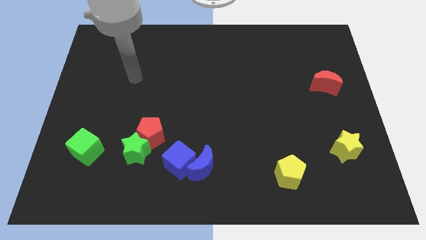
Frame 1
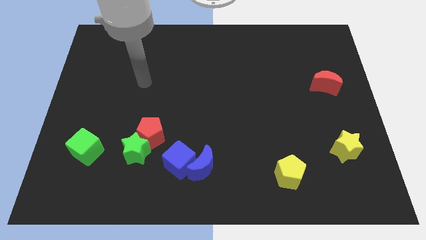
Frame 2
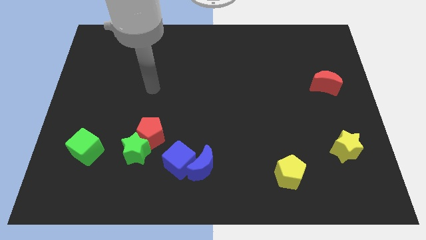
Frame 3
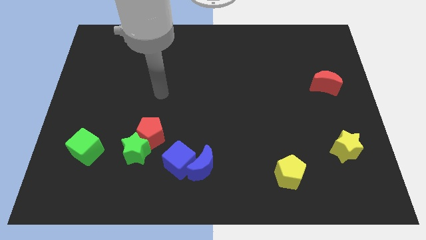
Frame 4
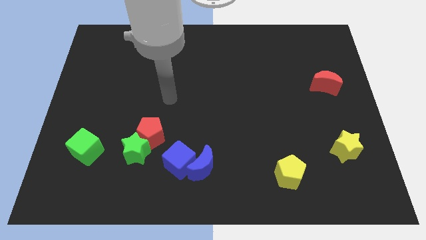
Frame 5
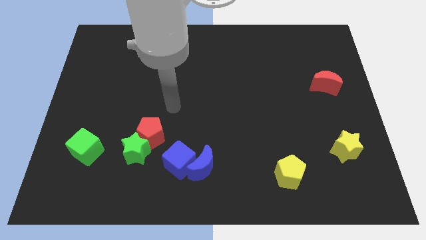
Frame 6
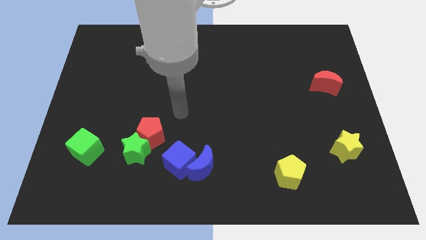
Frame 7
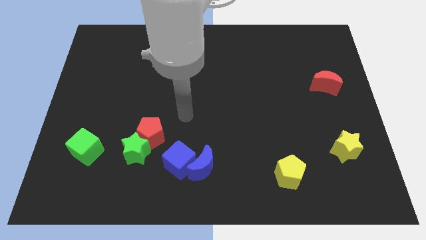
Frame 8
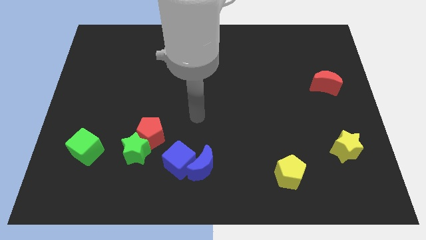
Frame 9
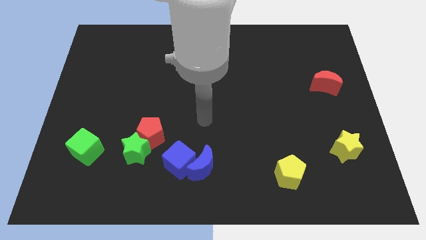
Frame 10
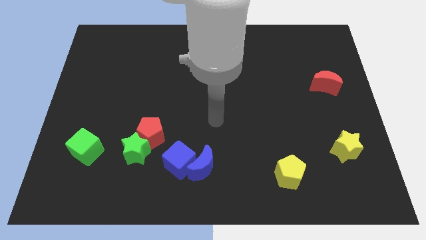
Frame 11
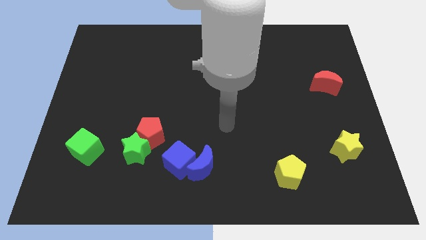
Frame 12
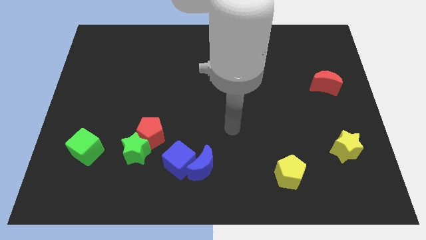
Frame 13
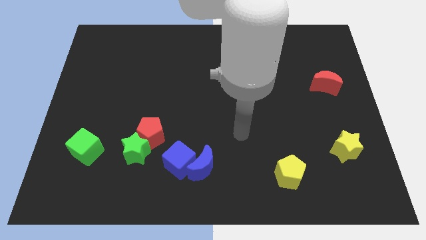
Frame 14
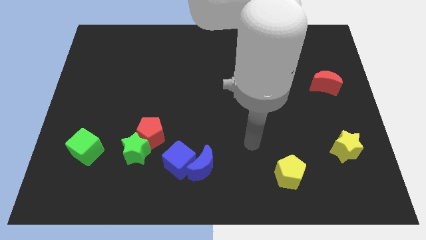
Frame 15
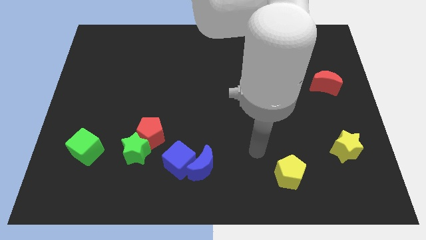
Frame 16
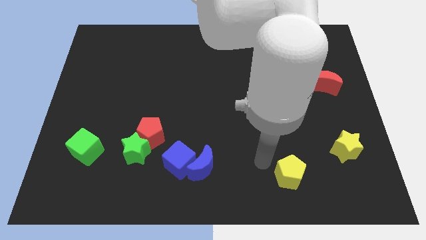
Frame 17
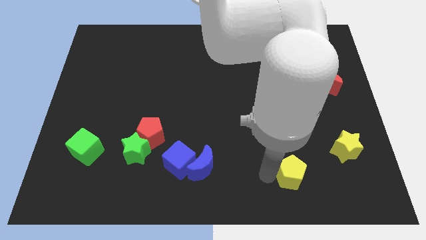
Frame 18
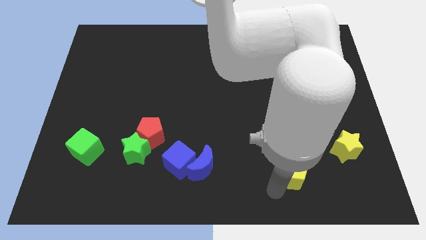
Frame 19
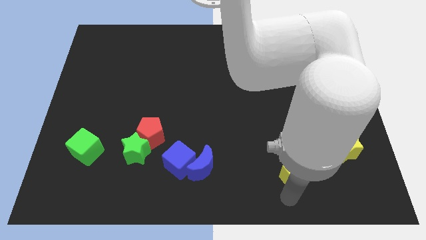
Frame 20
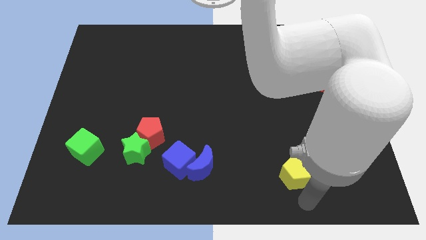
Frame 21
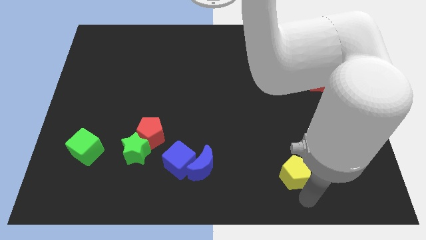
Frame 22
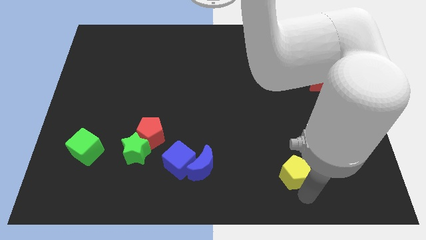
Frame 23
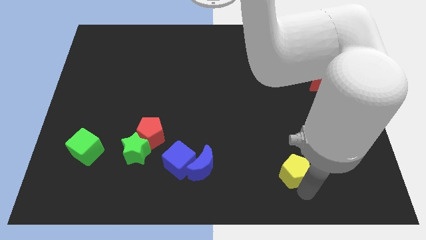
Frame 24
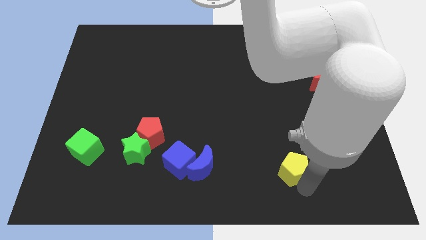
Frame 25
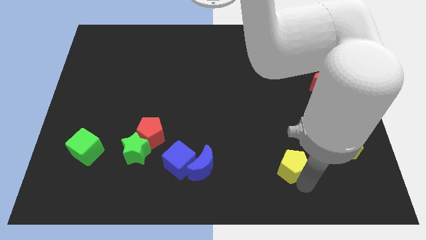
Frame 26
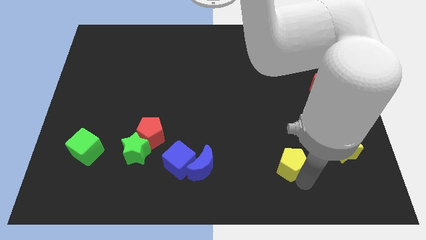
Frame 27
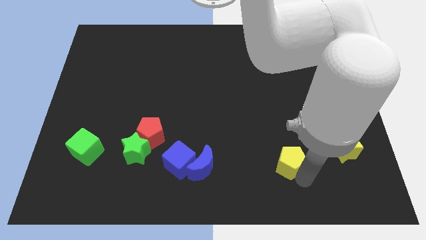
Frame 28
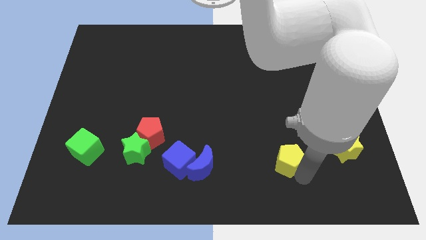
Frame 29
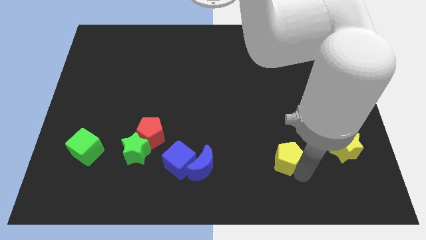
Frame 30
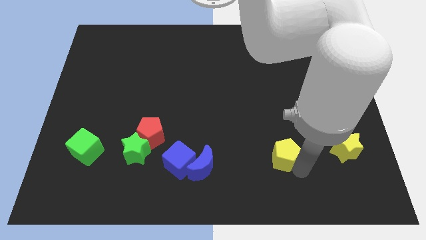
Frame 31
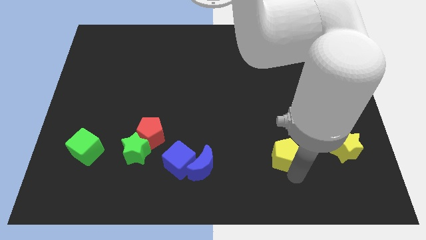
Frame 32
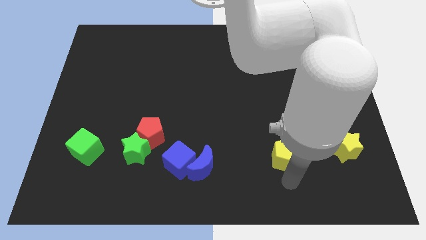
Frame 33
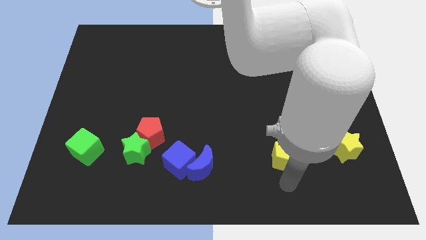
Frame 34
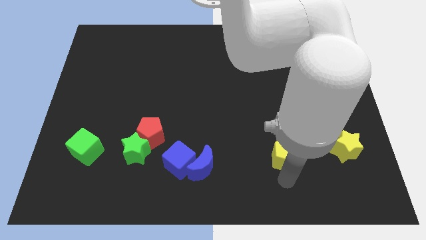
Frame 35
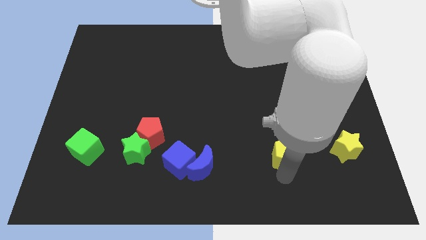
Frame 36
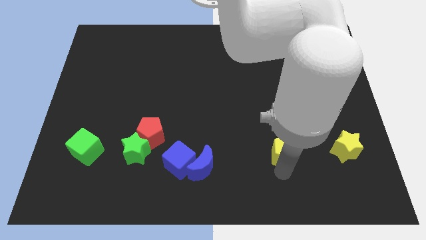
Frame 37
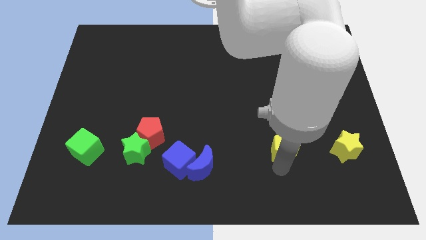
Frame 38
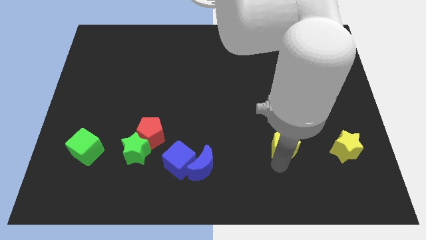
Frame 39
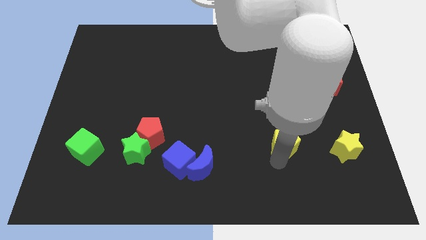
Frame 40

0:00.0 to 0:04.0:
slide the yellow pentagon up somewhat

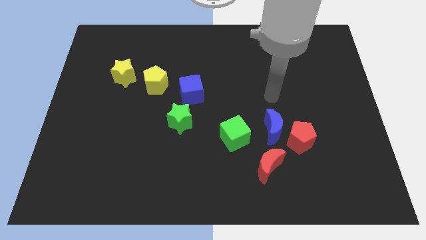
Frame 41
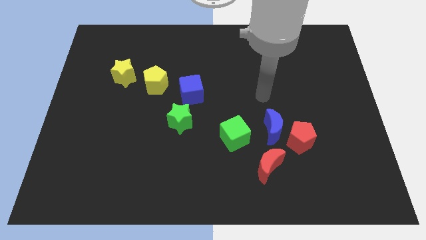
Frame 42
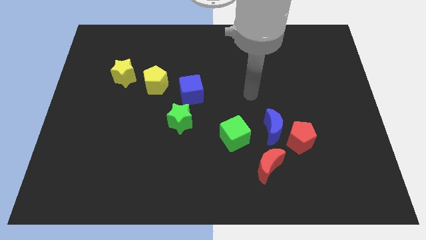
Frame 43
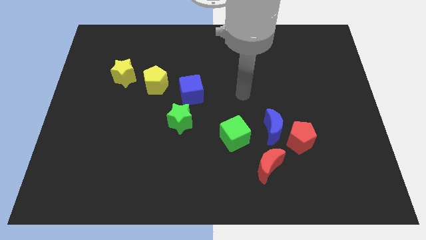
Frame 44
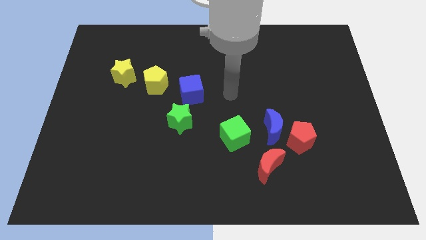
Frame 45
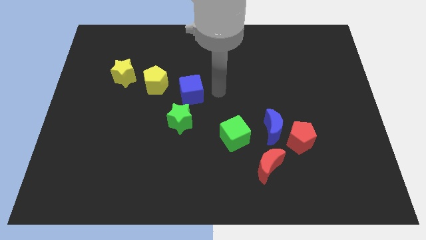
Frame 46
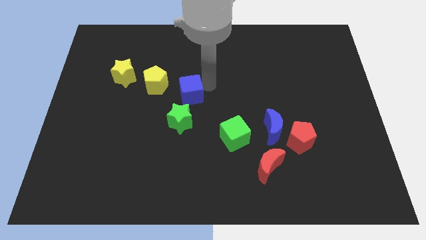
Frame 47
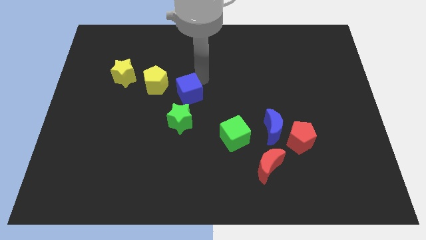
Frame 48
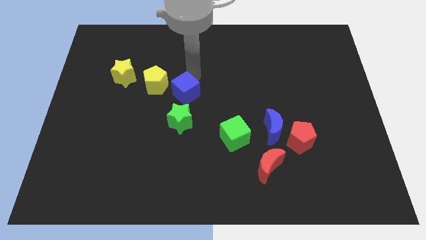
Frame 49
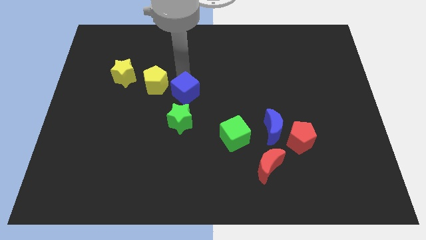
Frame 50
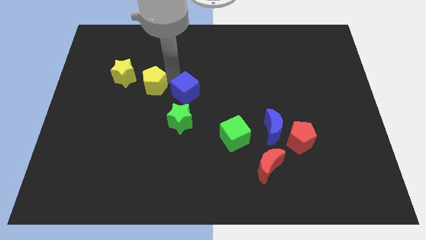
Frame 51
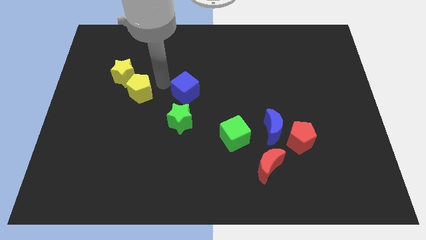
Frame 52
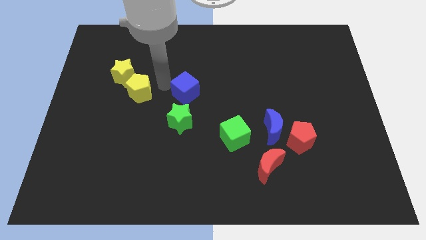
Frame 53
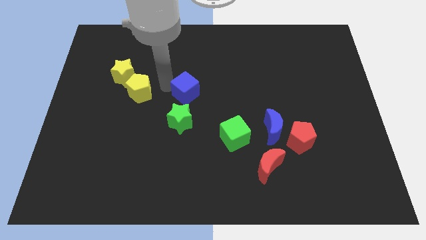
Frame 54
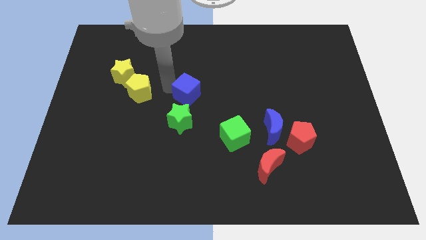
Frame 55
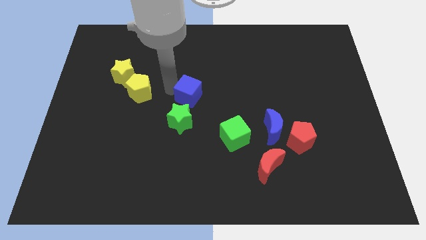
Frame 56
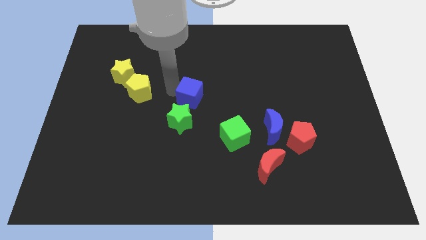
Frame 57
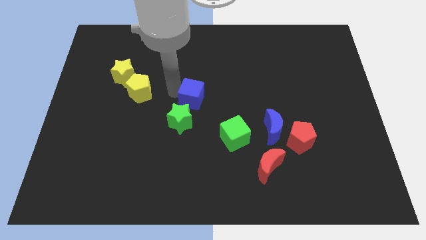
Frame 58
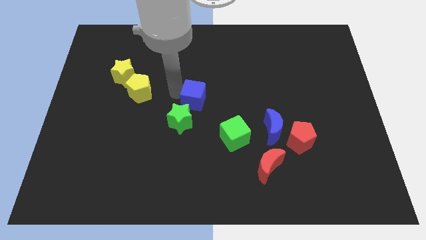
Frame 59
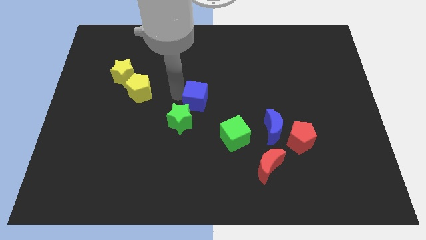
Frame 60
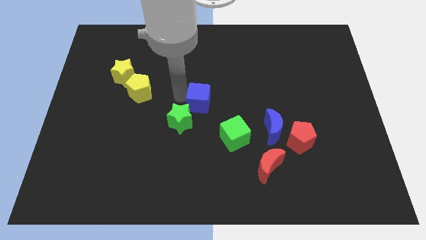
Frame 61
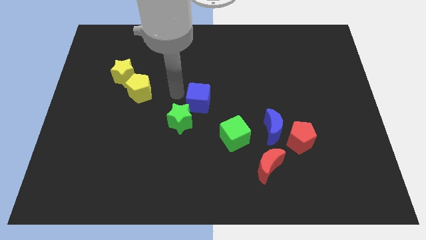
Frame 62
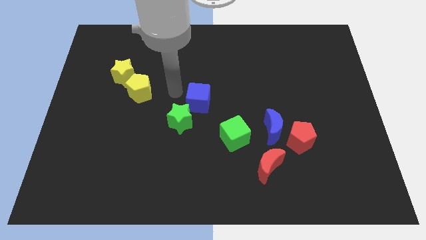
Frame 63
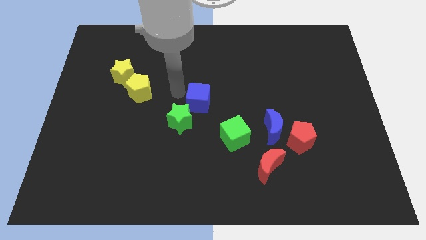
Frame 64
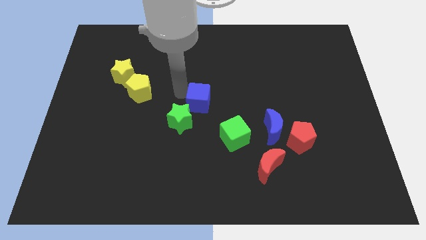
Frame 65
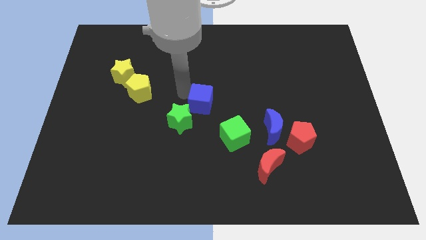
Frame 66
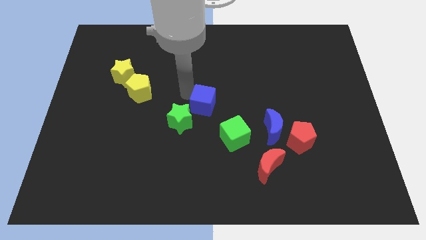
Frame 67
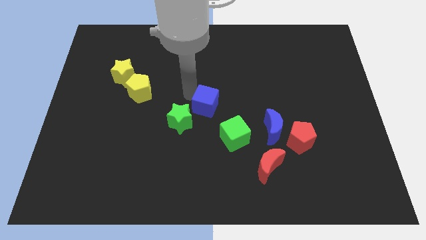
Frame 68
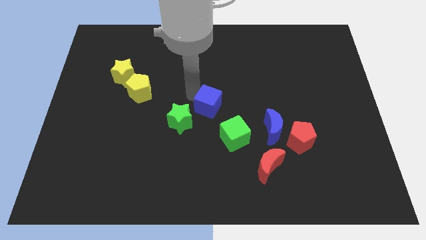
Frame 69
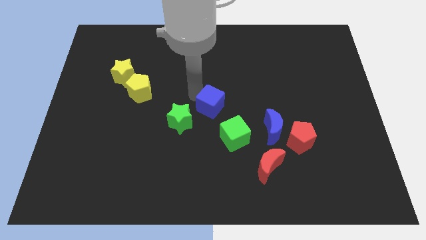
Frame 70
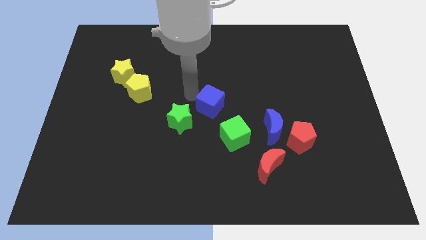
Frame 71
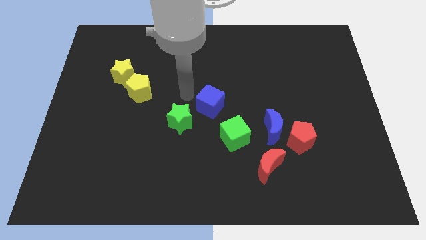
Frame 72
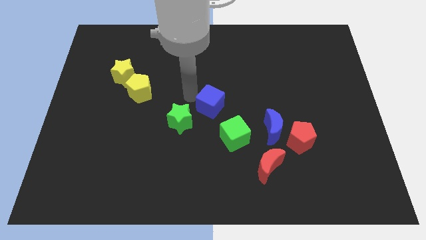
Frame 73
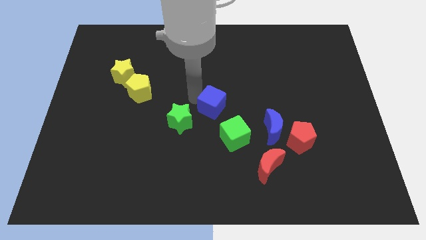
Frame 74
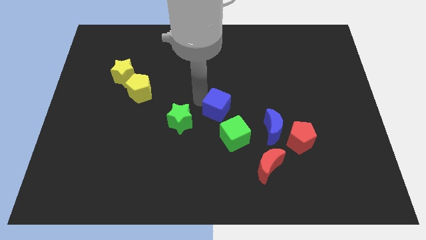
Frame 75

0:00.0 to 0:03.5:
slightly push the blue cube down and to the right

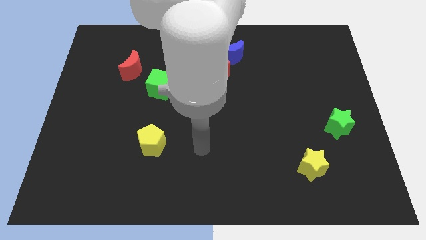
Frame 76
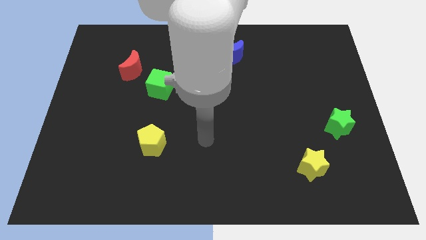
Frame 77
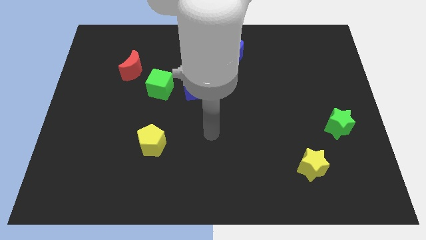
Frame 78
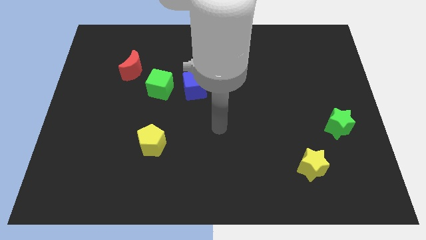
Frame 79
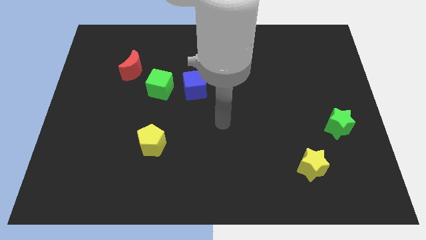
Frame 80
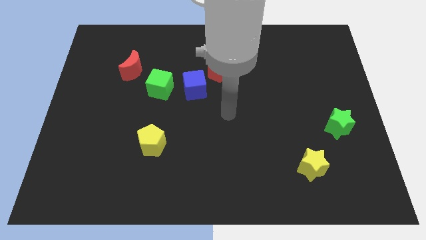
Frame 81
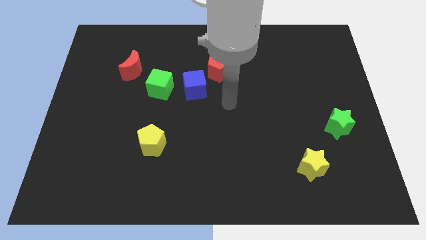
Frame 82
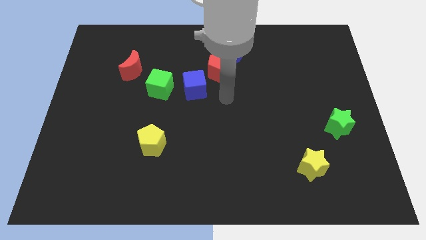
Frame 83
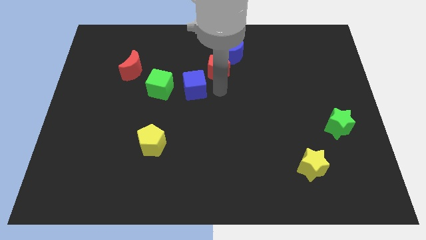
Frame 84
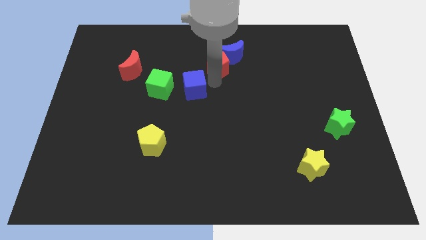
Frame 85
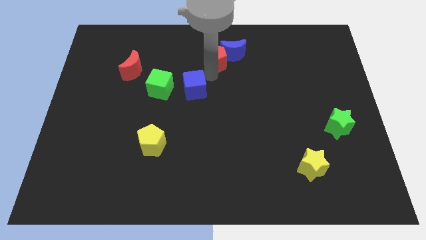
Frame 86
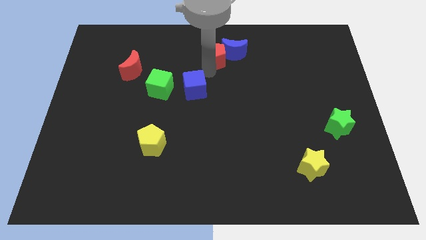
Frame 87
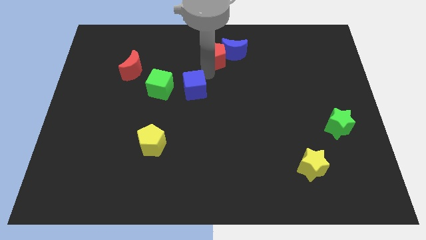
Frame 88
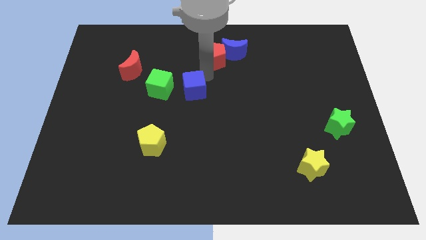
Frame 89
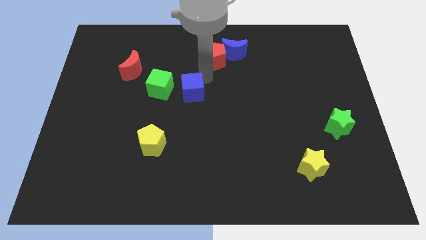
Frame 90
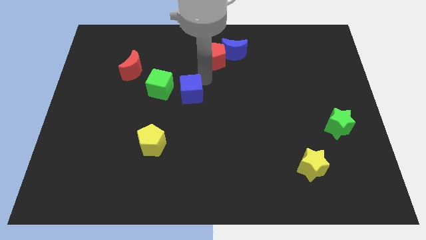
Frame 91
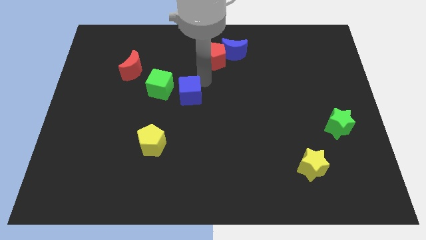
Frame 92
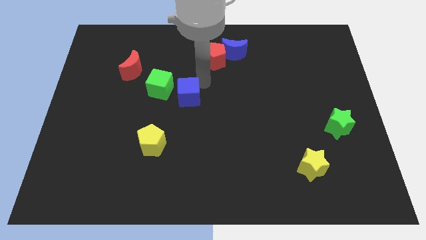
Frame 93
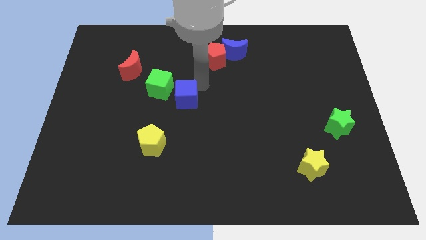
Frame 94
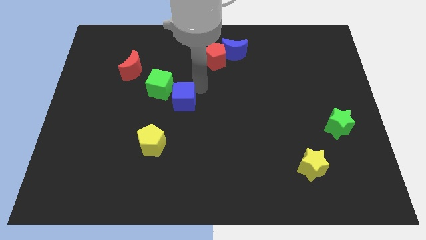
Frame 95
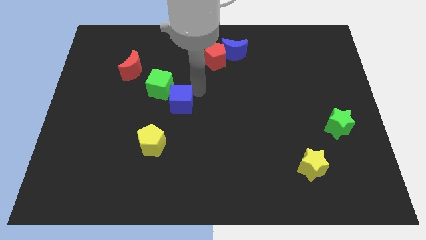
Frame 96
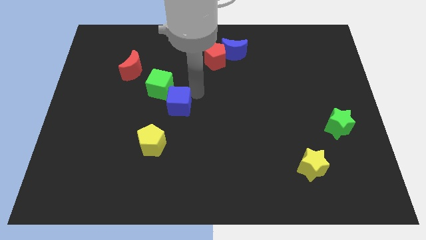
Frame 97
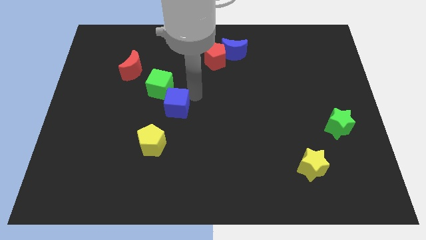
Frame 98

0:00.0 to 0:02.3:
slightly slide the blue cube downwards and to the left
